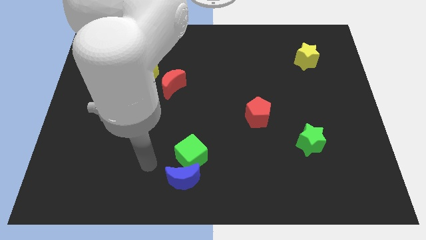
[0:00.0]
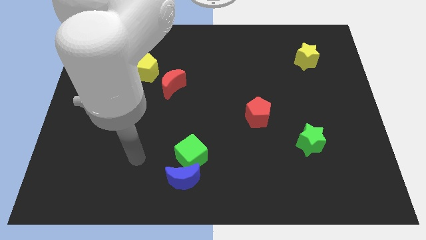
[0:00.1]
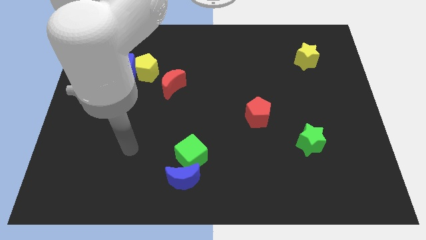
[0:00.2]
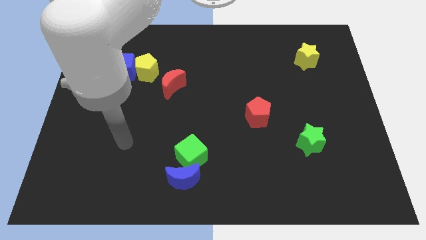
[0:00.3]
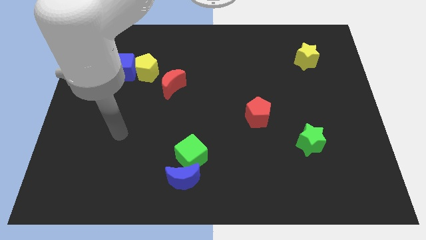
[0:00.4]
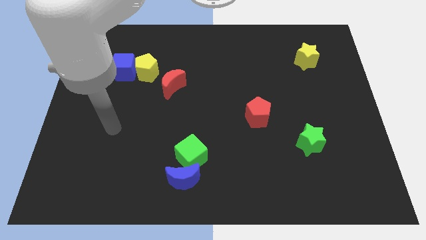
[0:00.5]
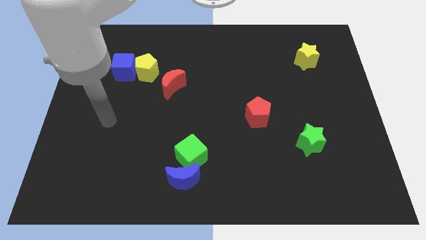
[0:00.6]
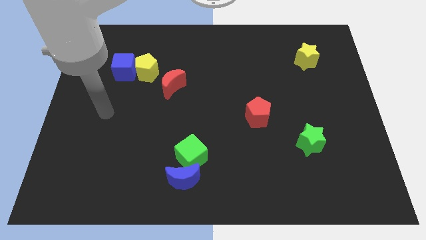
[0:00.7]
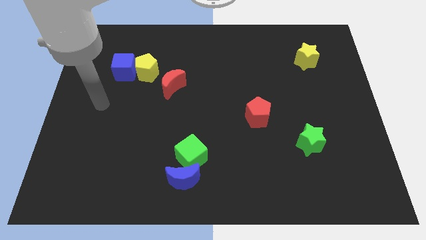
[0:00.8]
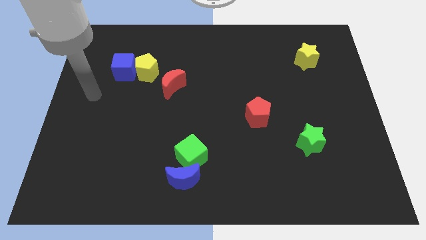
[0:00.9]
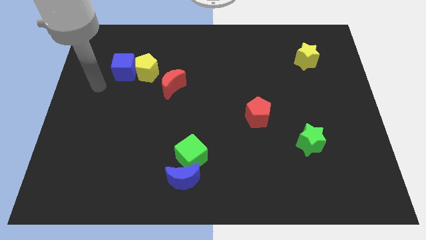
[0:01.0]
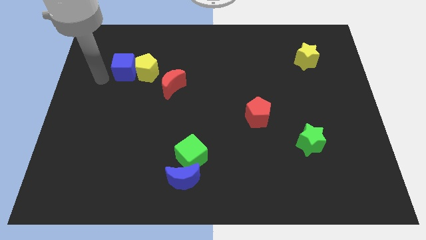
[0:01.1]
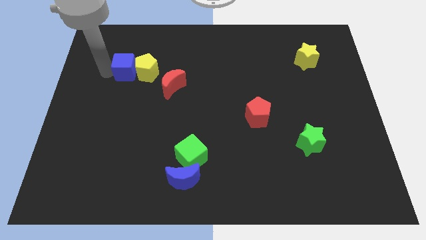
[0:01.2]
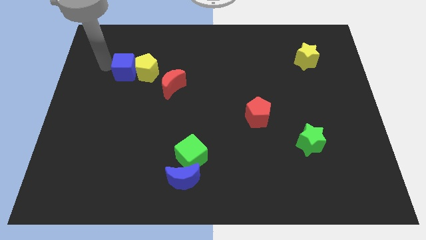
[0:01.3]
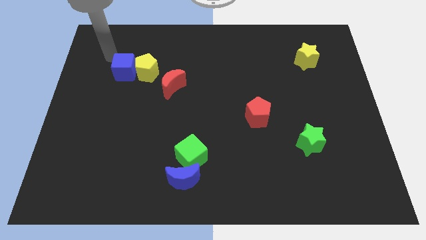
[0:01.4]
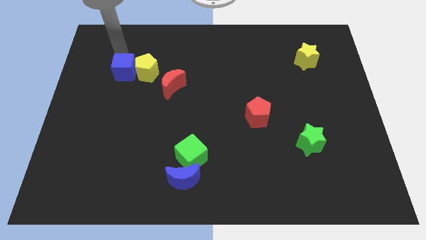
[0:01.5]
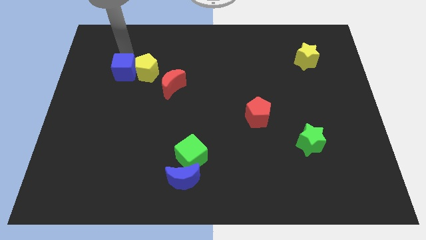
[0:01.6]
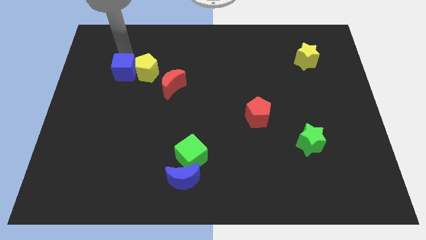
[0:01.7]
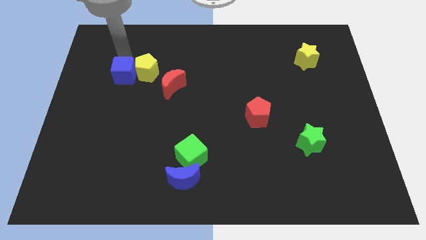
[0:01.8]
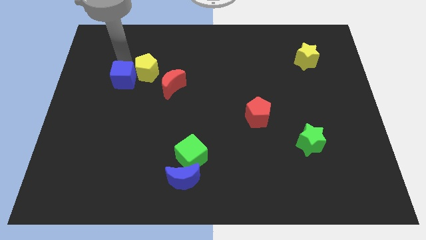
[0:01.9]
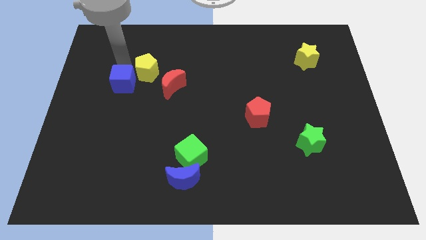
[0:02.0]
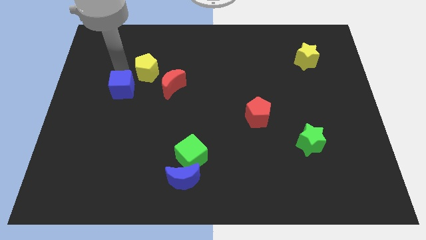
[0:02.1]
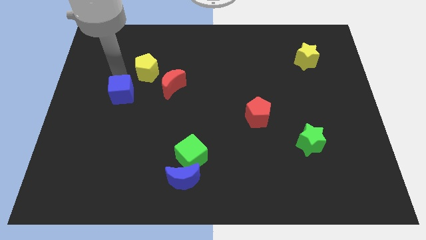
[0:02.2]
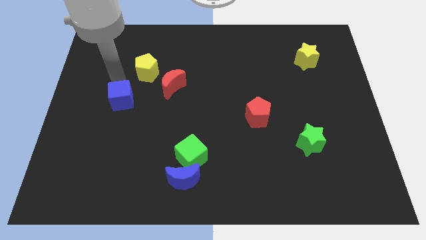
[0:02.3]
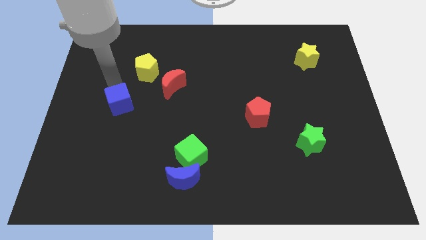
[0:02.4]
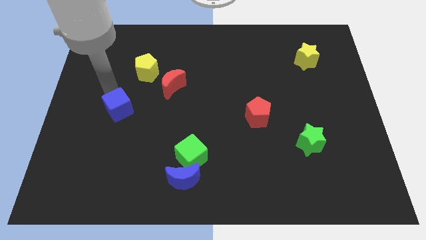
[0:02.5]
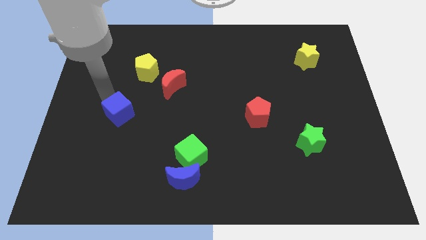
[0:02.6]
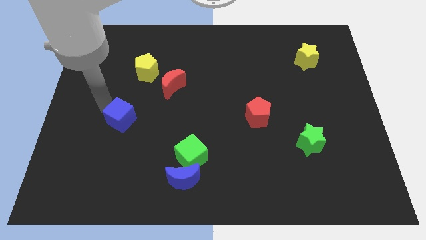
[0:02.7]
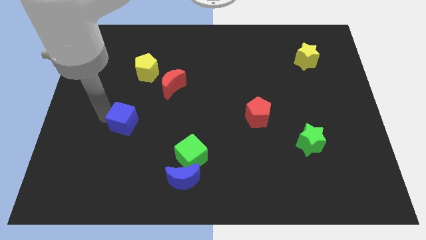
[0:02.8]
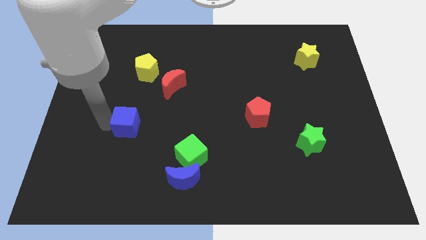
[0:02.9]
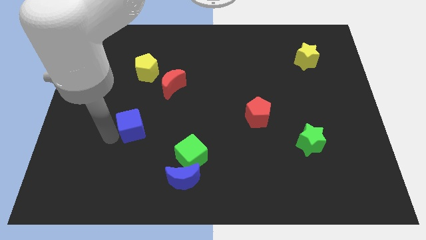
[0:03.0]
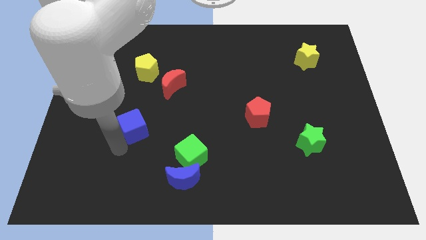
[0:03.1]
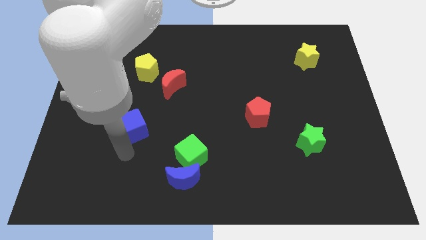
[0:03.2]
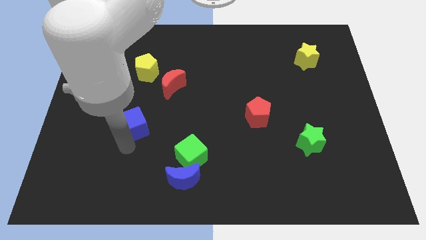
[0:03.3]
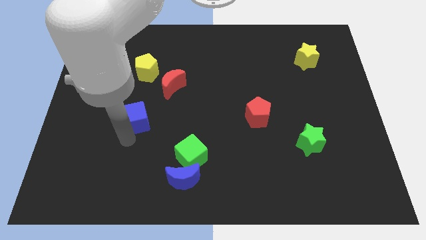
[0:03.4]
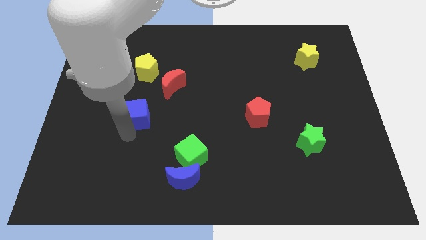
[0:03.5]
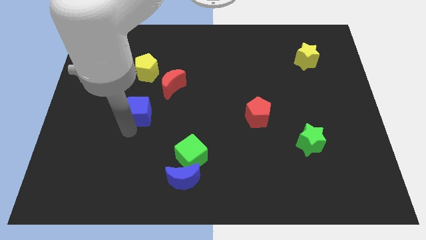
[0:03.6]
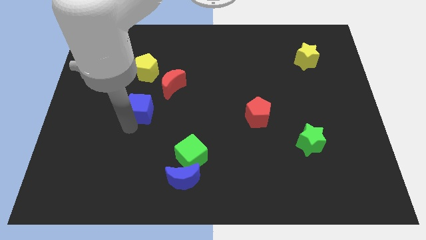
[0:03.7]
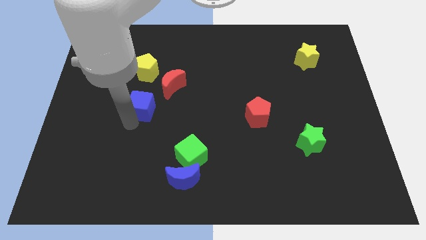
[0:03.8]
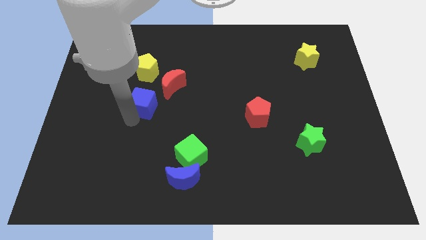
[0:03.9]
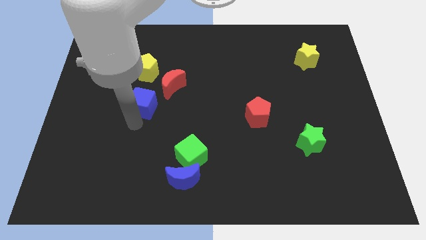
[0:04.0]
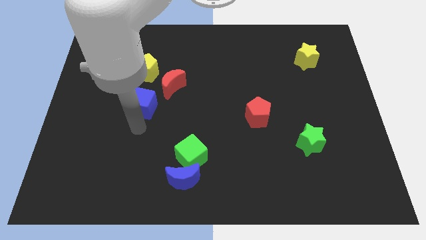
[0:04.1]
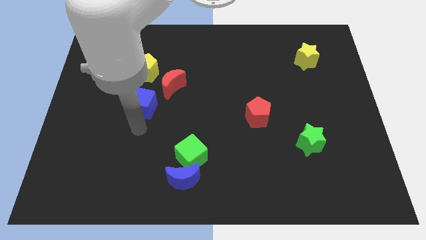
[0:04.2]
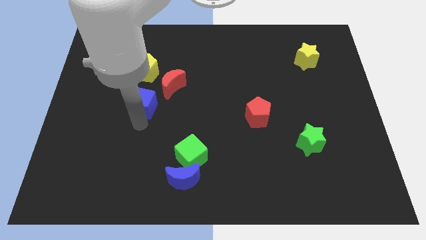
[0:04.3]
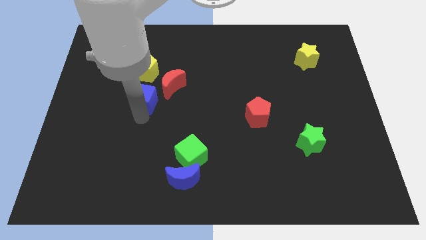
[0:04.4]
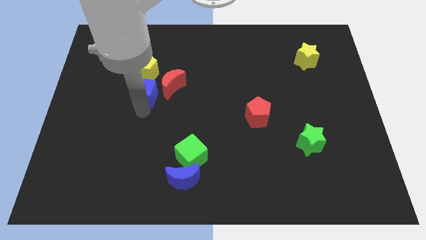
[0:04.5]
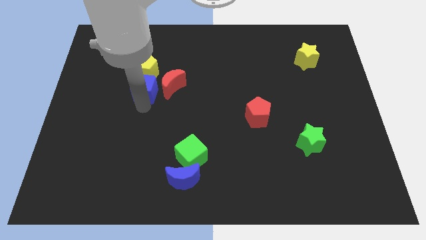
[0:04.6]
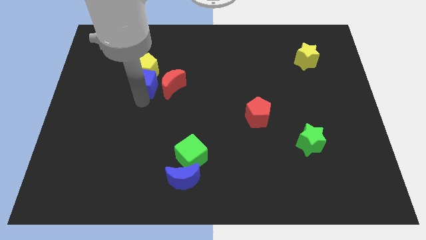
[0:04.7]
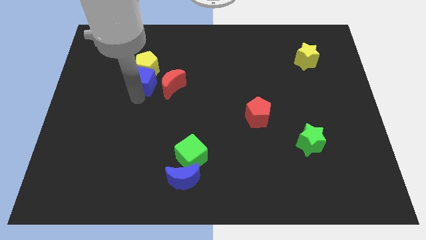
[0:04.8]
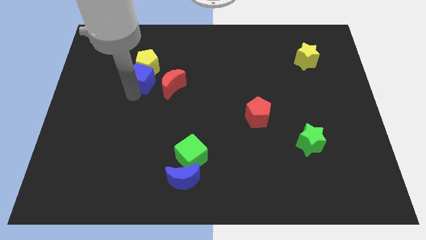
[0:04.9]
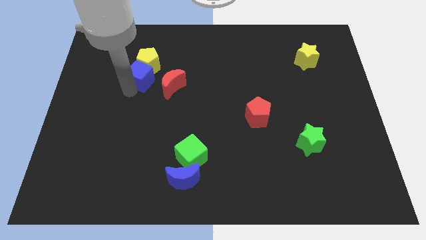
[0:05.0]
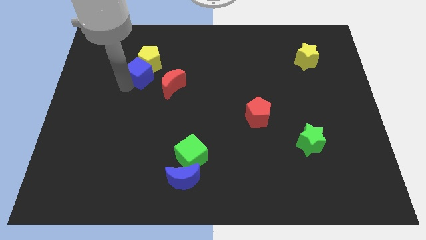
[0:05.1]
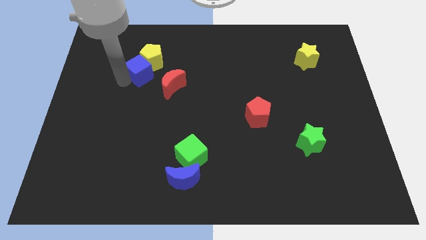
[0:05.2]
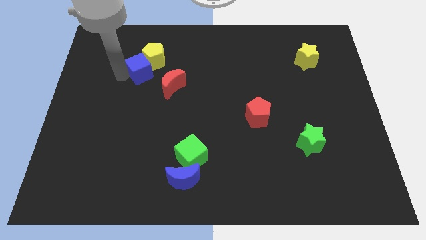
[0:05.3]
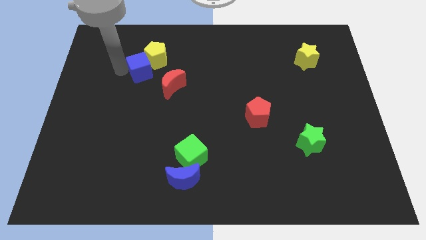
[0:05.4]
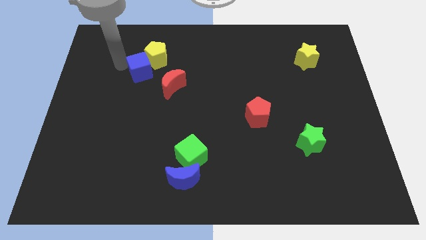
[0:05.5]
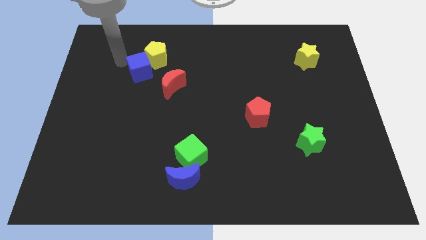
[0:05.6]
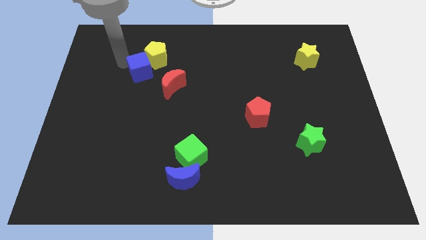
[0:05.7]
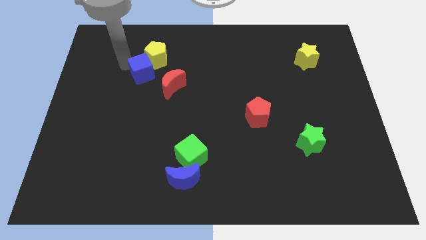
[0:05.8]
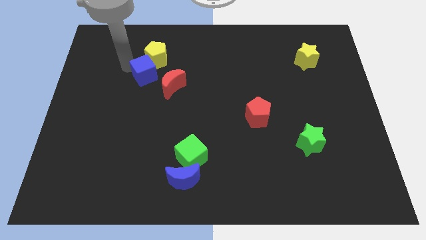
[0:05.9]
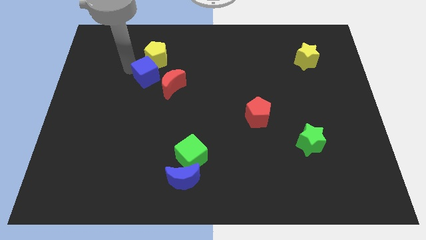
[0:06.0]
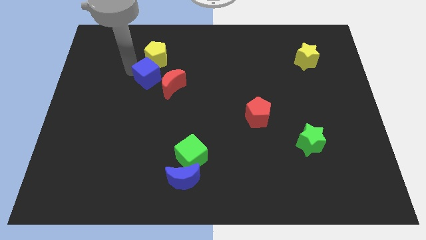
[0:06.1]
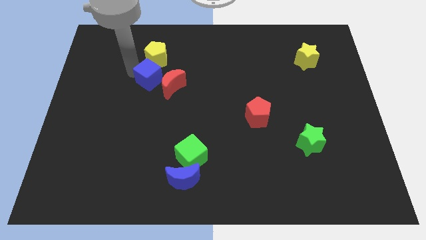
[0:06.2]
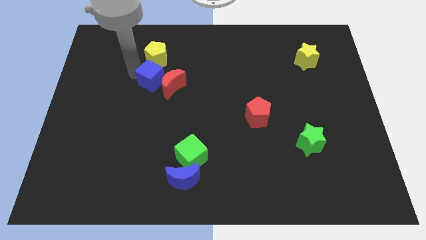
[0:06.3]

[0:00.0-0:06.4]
put the blue cube towards the red moon
